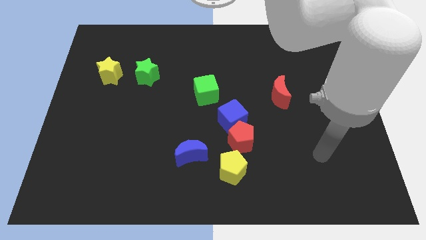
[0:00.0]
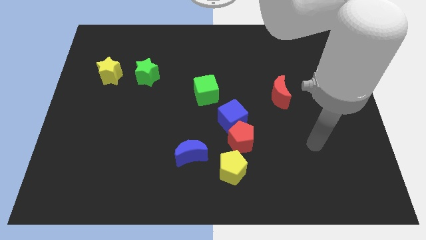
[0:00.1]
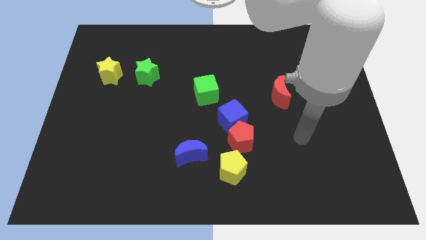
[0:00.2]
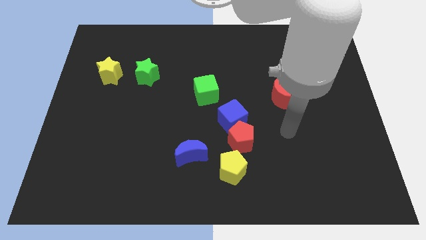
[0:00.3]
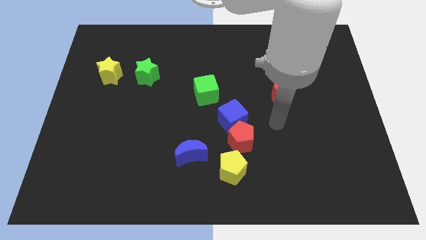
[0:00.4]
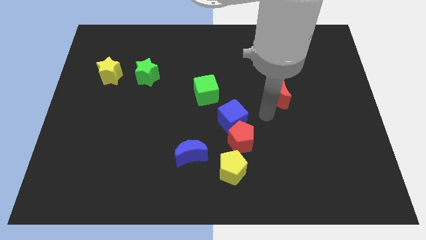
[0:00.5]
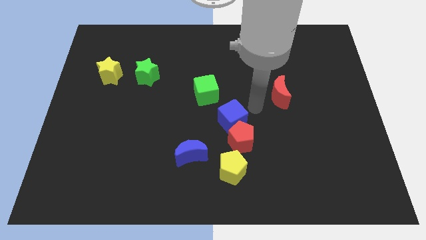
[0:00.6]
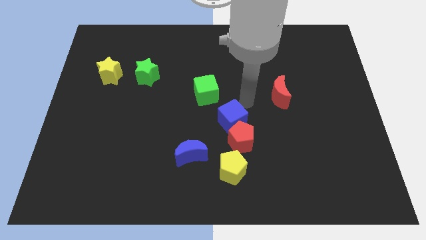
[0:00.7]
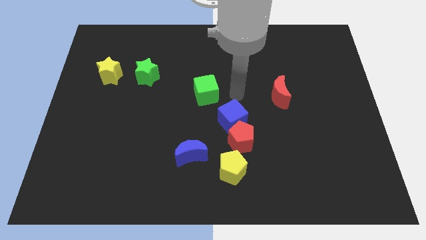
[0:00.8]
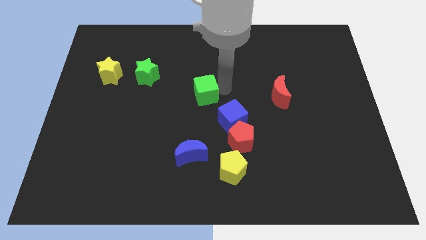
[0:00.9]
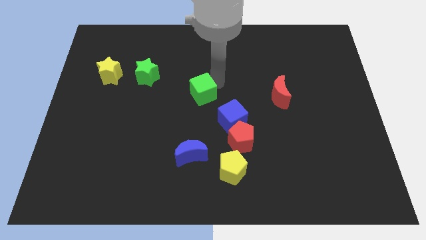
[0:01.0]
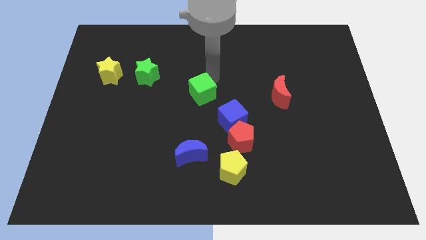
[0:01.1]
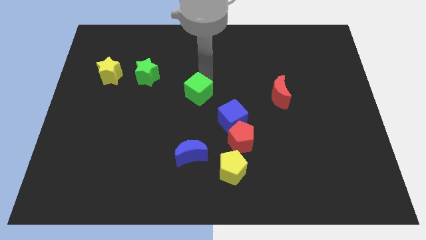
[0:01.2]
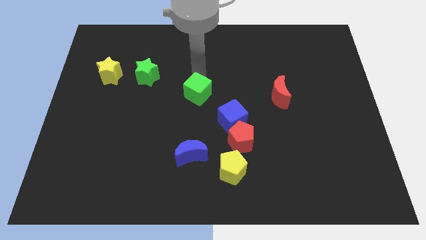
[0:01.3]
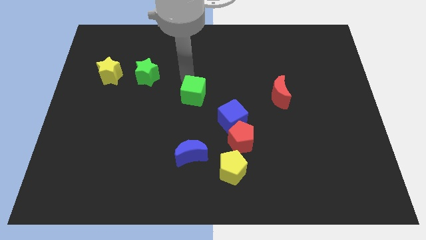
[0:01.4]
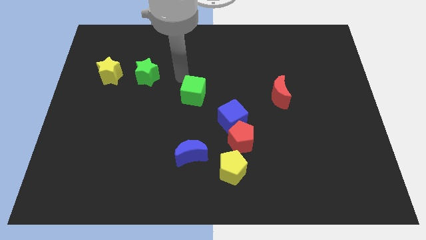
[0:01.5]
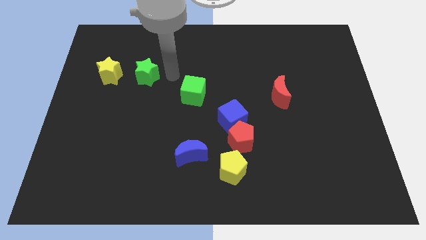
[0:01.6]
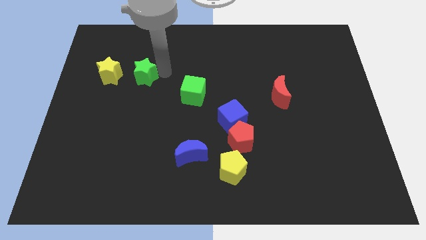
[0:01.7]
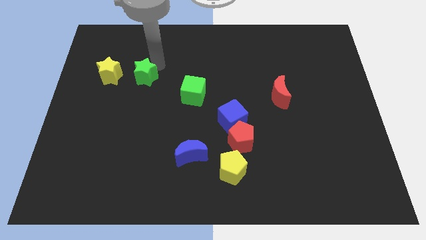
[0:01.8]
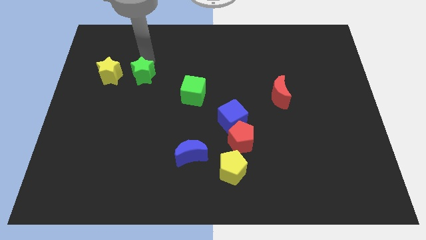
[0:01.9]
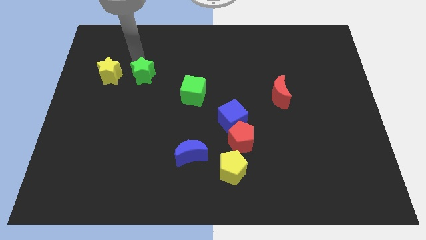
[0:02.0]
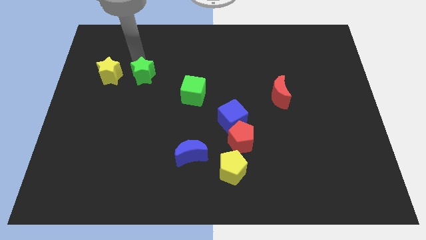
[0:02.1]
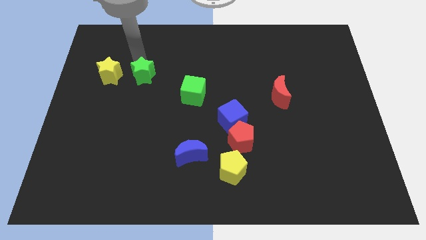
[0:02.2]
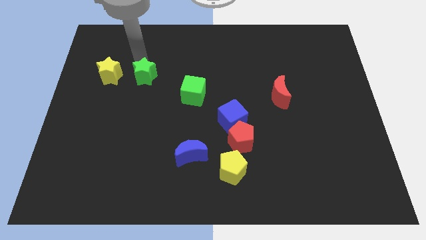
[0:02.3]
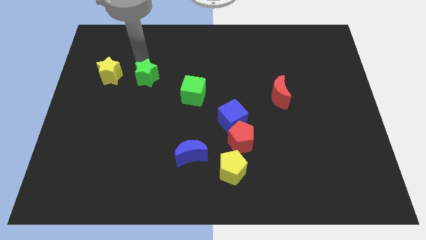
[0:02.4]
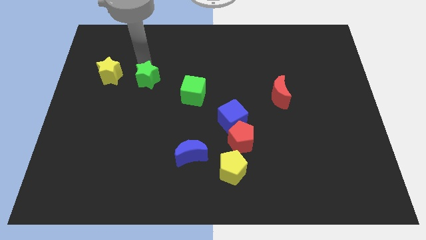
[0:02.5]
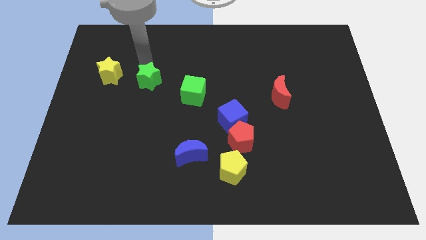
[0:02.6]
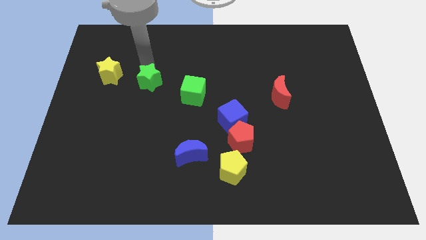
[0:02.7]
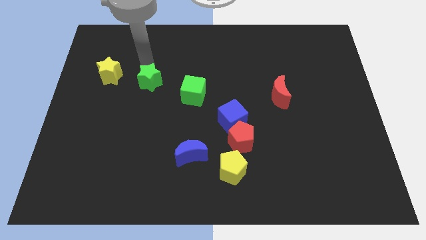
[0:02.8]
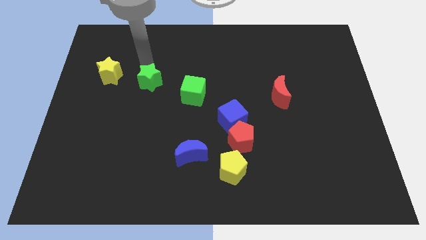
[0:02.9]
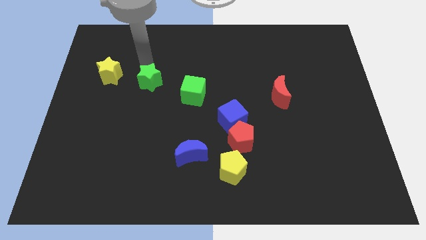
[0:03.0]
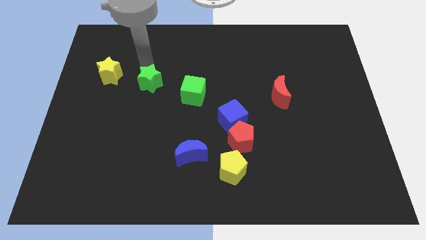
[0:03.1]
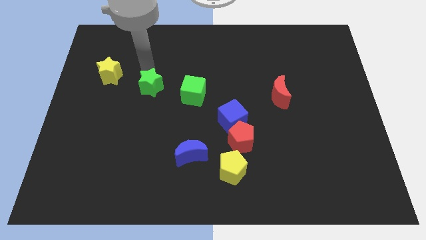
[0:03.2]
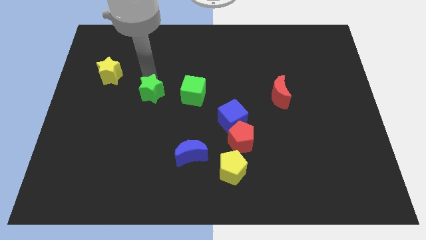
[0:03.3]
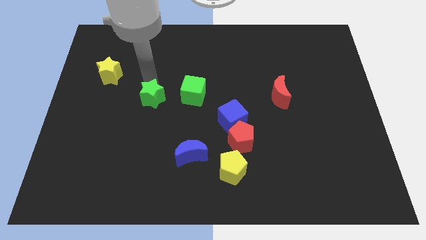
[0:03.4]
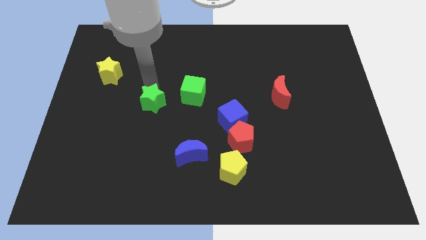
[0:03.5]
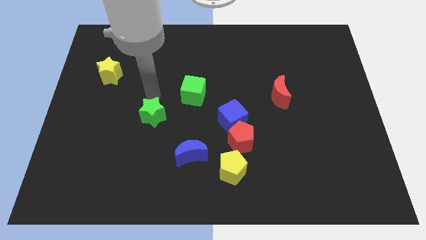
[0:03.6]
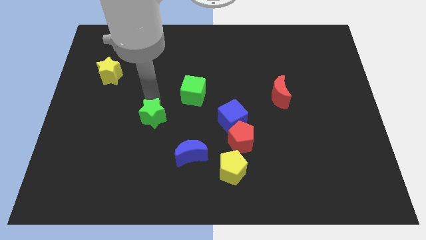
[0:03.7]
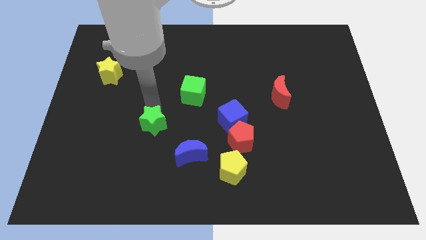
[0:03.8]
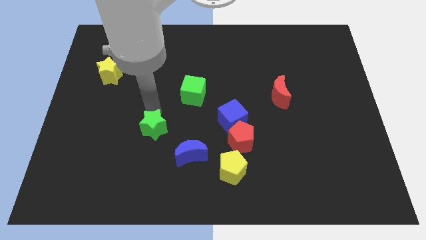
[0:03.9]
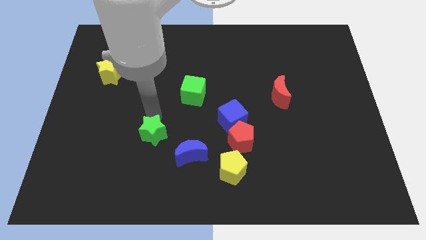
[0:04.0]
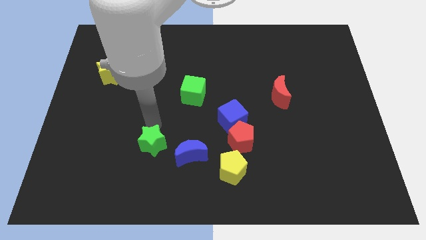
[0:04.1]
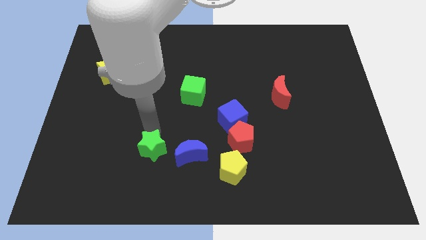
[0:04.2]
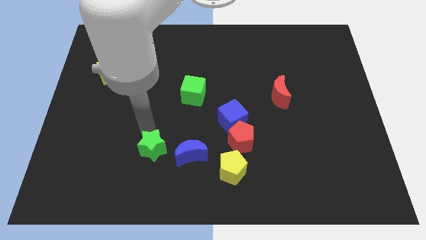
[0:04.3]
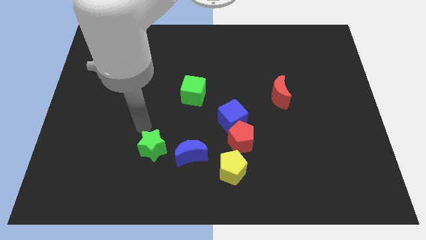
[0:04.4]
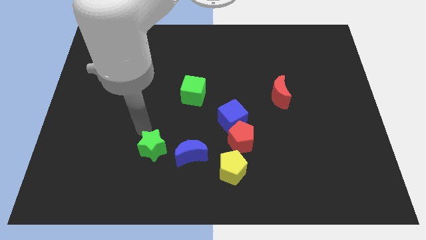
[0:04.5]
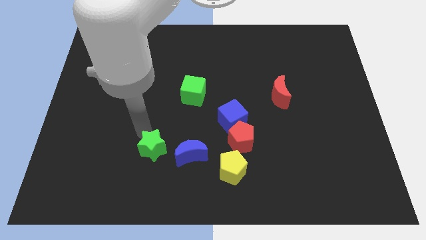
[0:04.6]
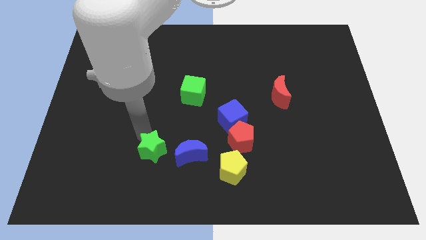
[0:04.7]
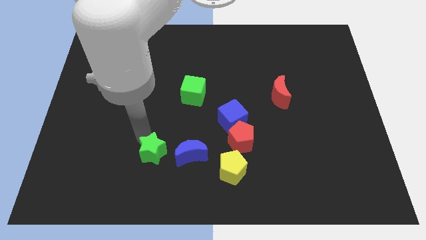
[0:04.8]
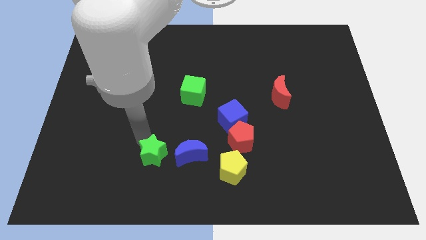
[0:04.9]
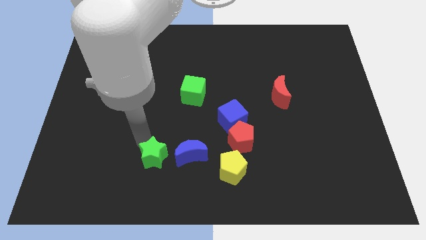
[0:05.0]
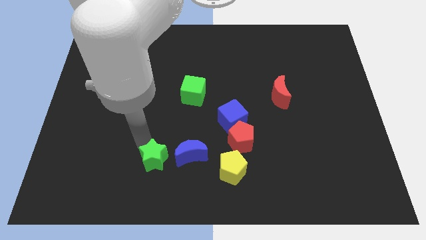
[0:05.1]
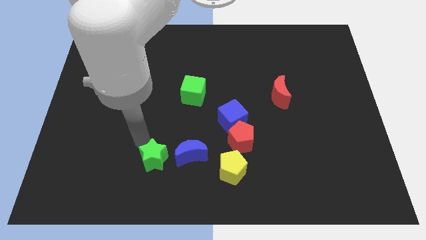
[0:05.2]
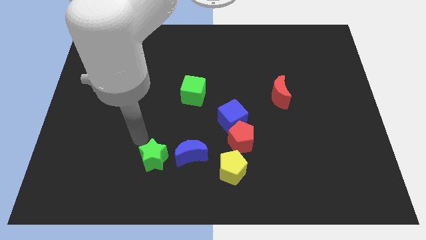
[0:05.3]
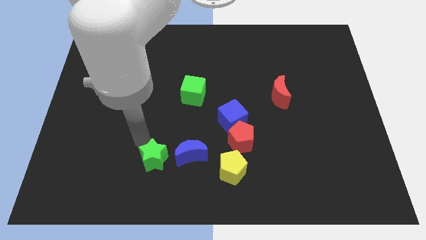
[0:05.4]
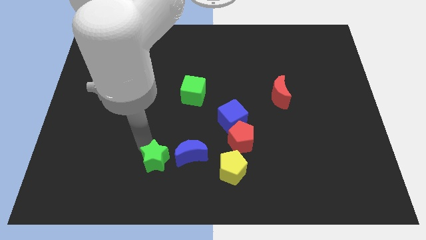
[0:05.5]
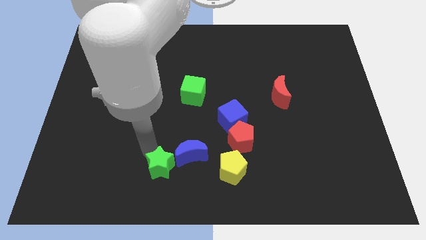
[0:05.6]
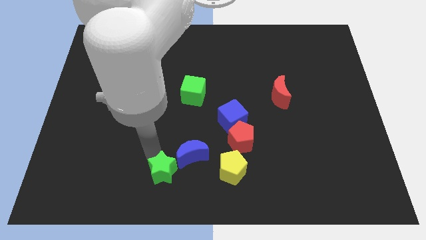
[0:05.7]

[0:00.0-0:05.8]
move the green star to the bottom

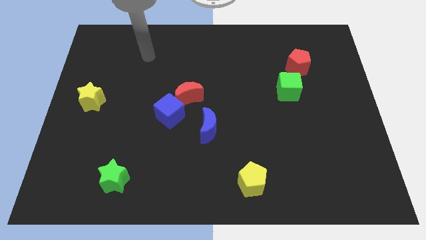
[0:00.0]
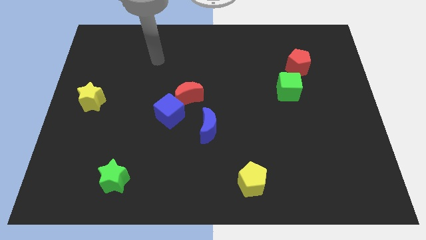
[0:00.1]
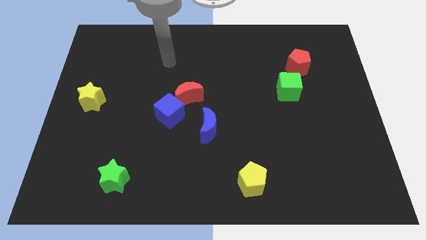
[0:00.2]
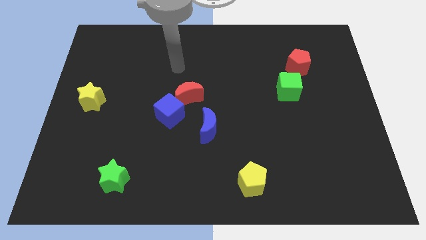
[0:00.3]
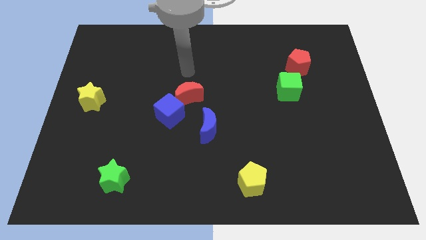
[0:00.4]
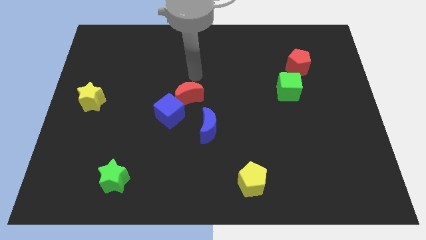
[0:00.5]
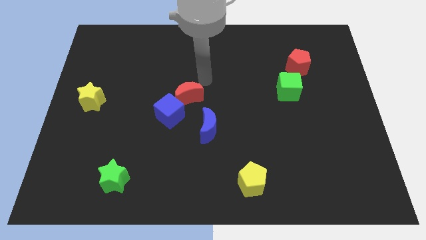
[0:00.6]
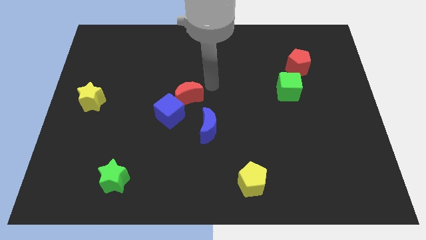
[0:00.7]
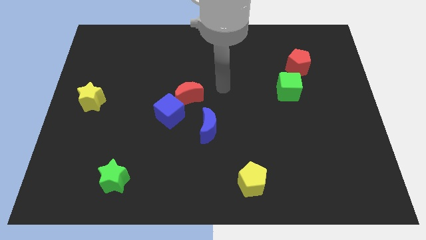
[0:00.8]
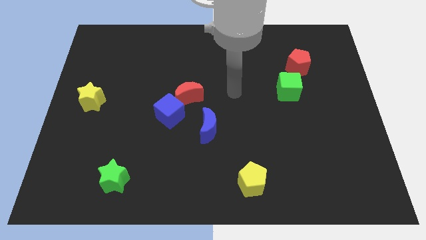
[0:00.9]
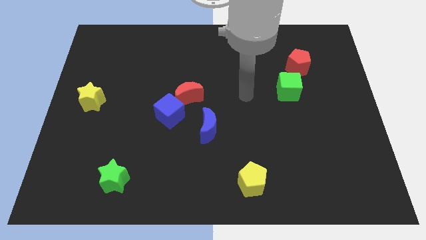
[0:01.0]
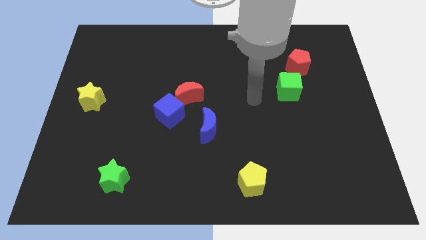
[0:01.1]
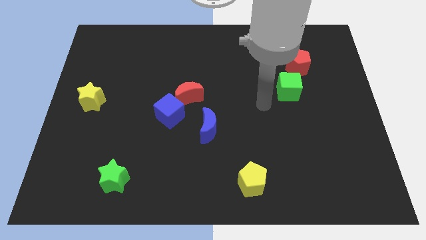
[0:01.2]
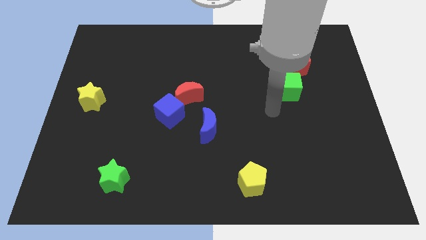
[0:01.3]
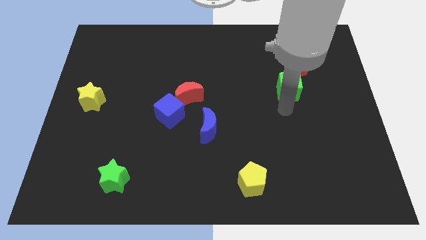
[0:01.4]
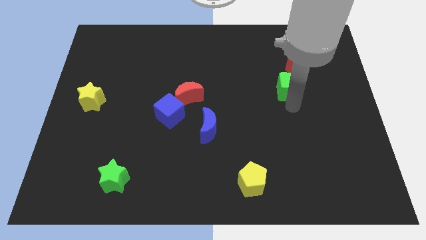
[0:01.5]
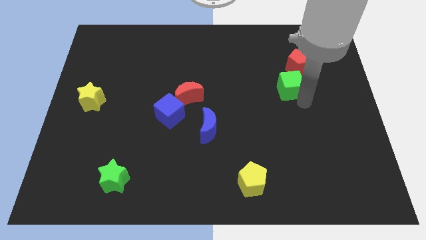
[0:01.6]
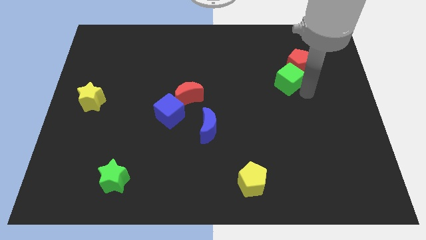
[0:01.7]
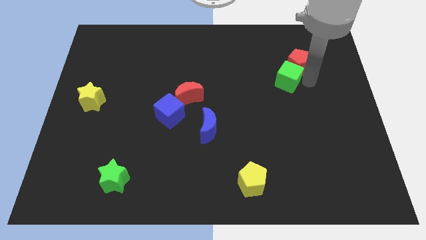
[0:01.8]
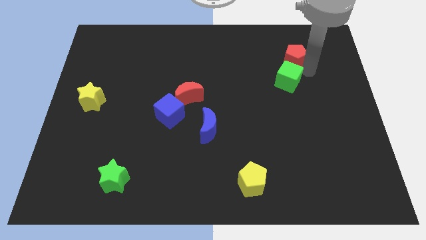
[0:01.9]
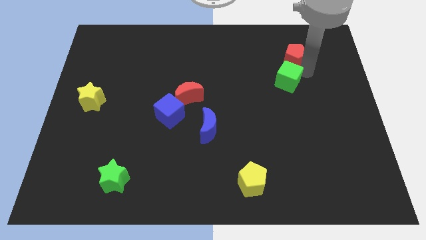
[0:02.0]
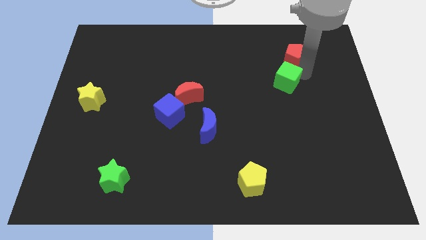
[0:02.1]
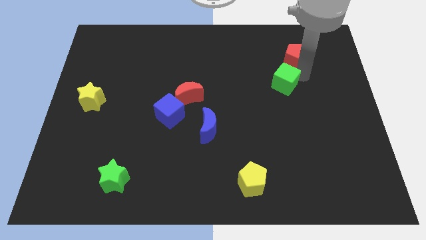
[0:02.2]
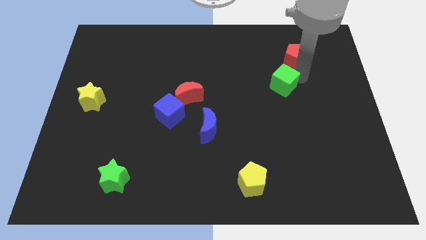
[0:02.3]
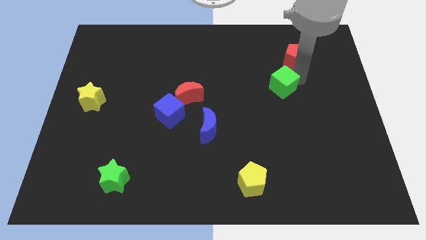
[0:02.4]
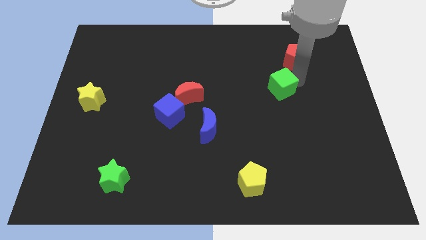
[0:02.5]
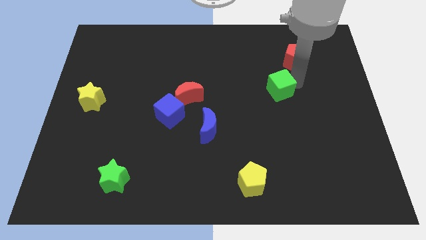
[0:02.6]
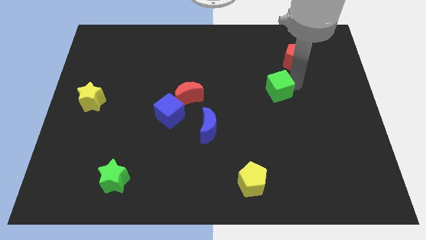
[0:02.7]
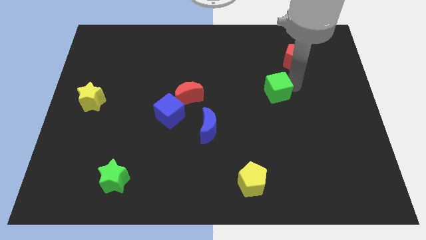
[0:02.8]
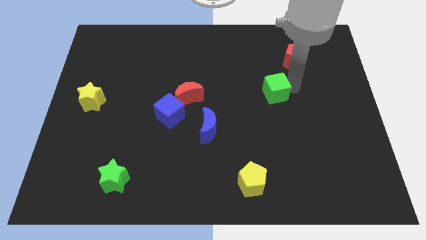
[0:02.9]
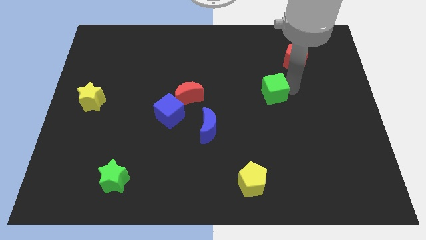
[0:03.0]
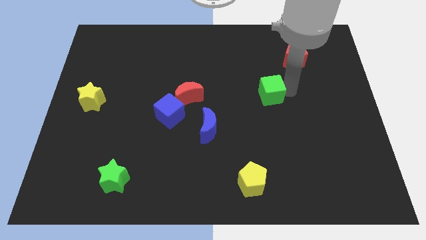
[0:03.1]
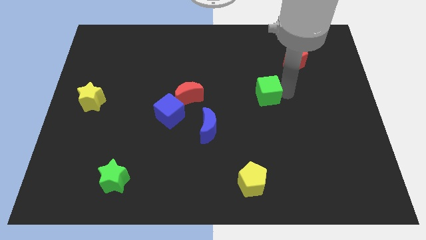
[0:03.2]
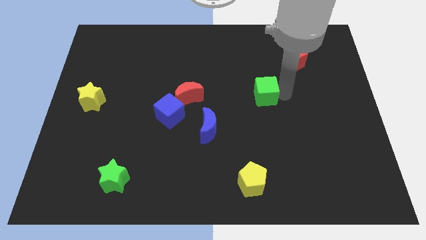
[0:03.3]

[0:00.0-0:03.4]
push the green cube to the center
